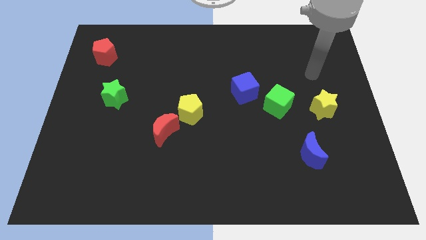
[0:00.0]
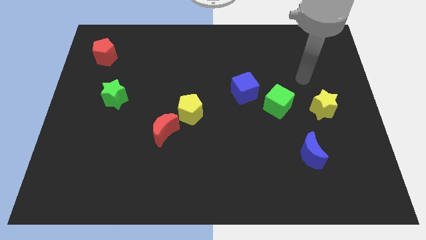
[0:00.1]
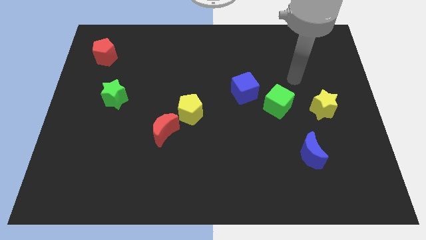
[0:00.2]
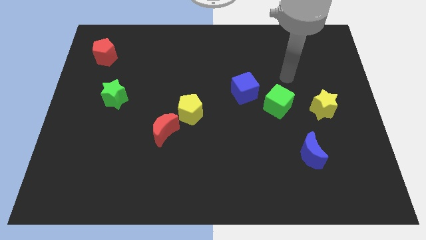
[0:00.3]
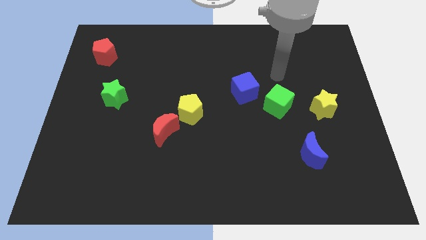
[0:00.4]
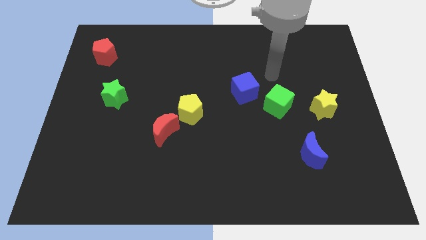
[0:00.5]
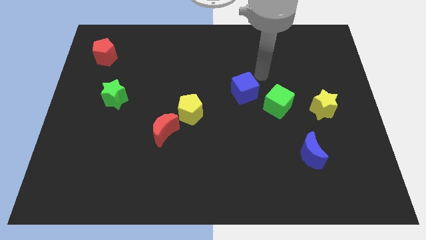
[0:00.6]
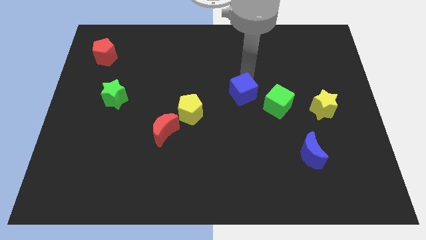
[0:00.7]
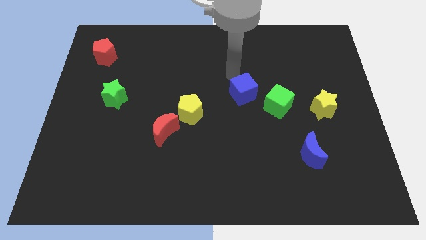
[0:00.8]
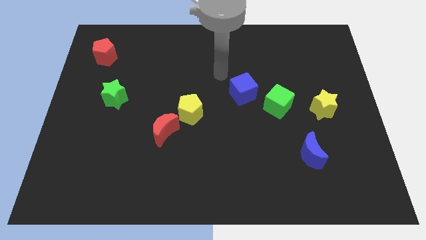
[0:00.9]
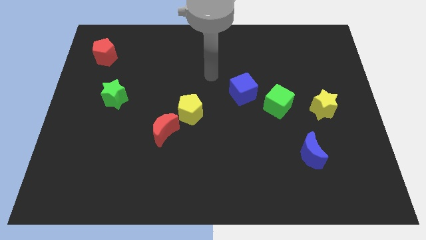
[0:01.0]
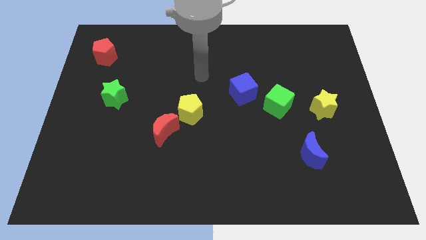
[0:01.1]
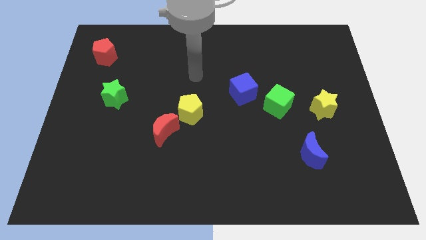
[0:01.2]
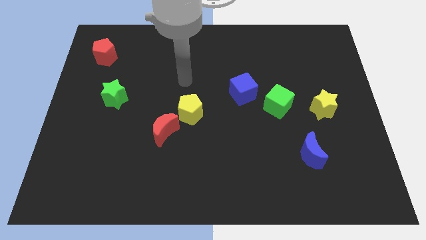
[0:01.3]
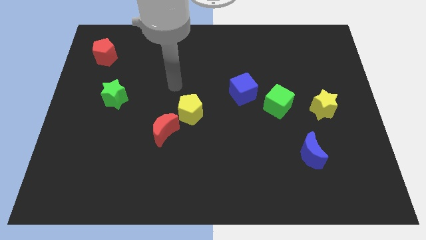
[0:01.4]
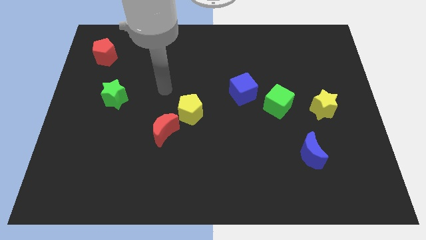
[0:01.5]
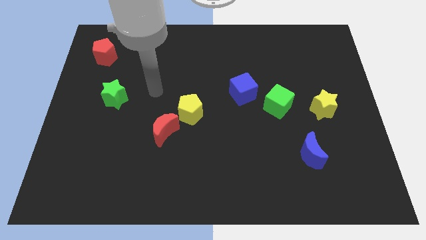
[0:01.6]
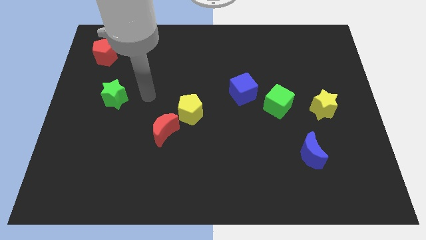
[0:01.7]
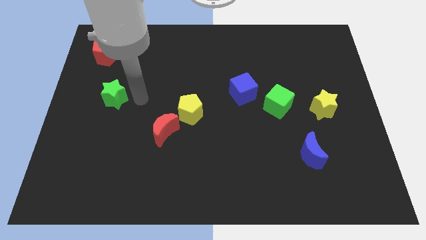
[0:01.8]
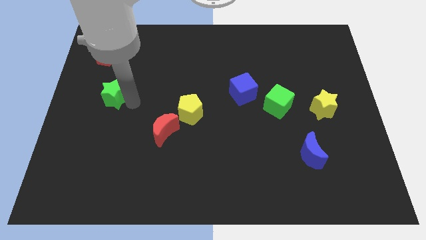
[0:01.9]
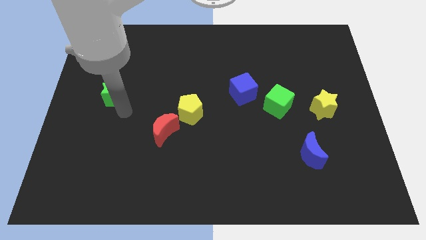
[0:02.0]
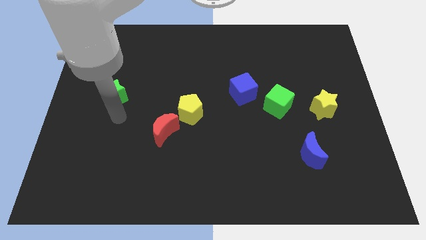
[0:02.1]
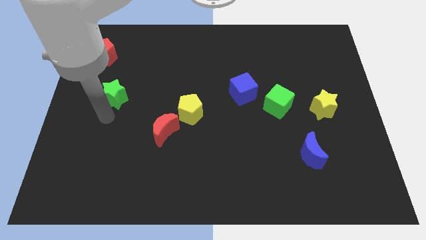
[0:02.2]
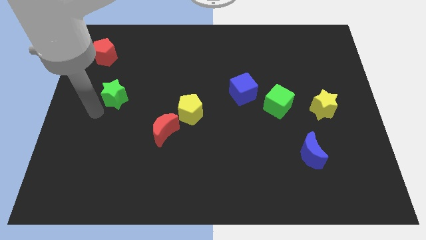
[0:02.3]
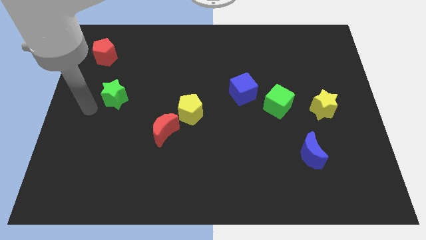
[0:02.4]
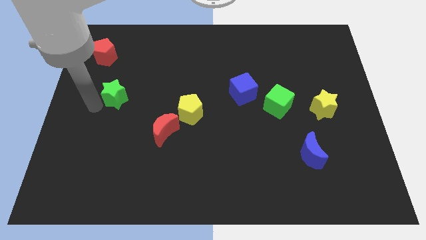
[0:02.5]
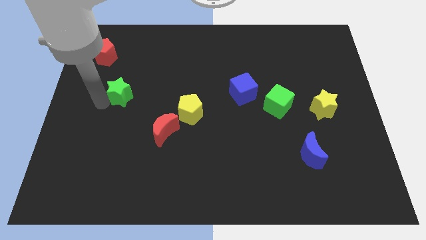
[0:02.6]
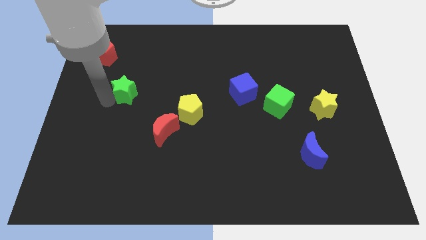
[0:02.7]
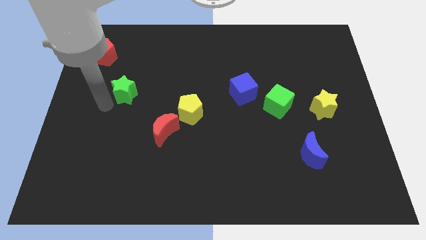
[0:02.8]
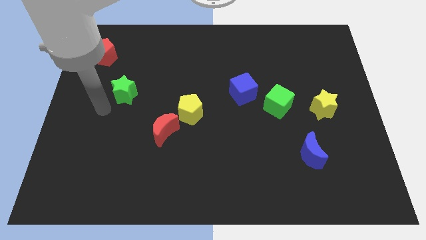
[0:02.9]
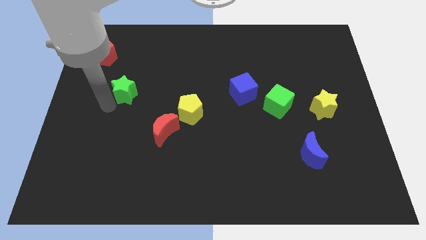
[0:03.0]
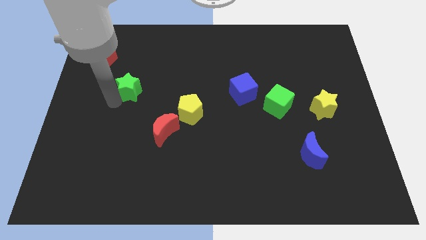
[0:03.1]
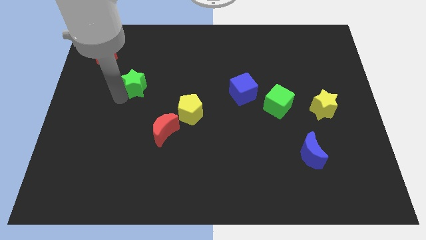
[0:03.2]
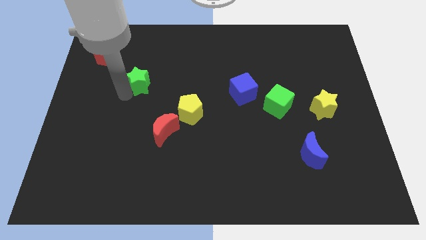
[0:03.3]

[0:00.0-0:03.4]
push the green star diagonally up and right a bit

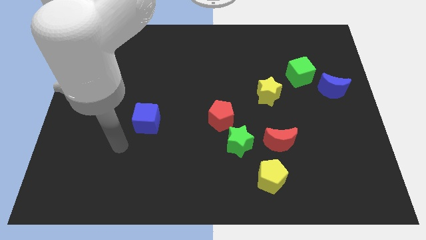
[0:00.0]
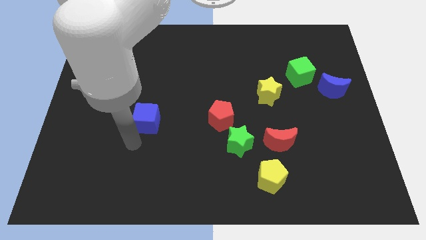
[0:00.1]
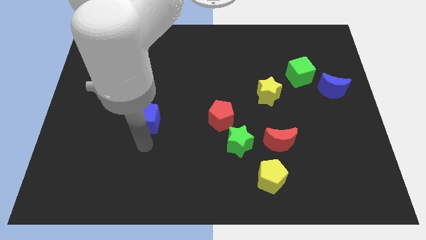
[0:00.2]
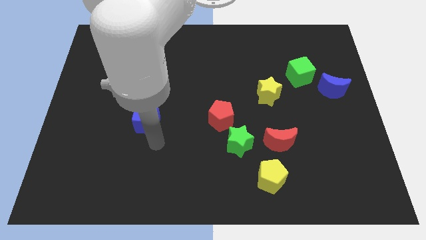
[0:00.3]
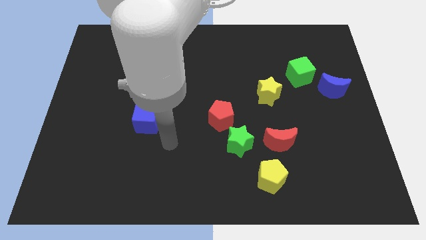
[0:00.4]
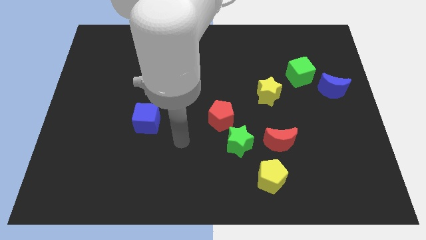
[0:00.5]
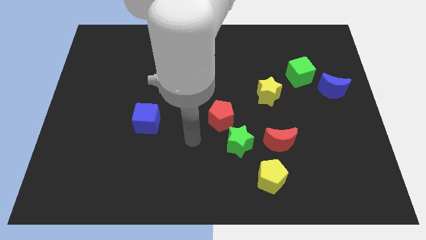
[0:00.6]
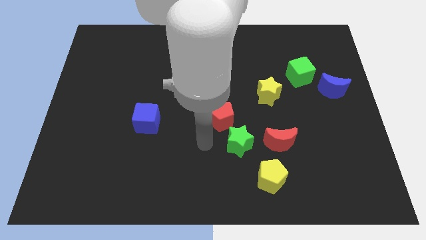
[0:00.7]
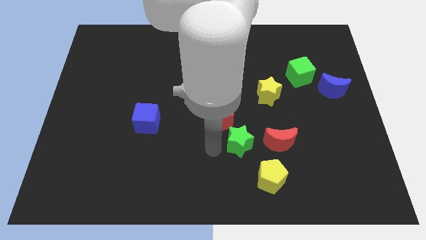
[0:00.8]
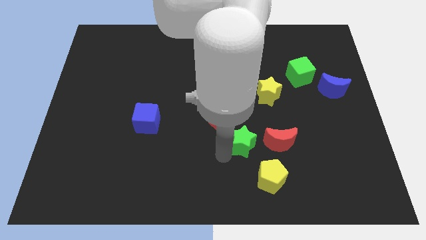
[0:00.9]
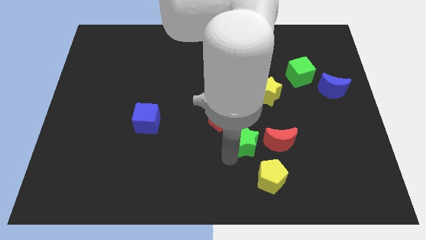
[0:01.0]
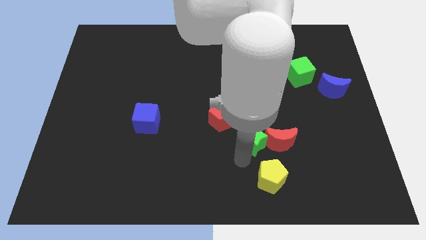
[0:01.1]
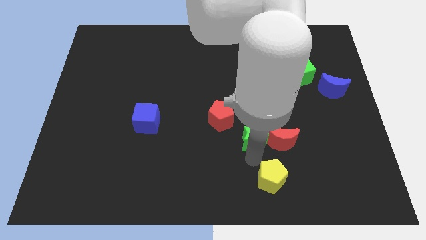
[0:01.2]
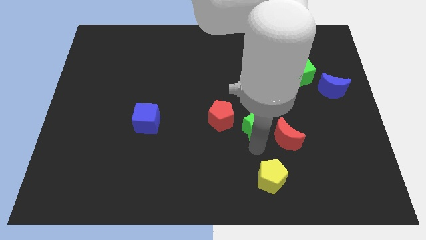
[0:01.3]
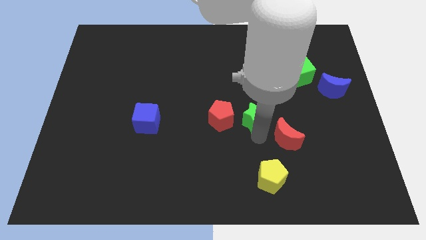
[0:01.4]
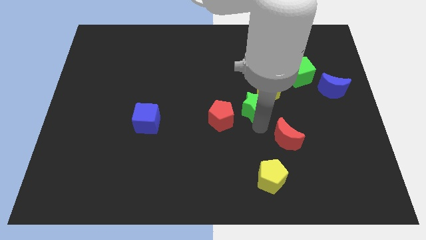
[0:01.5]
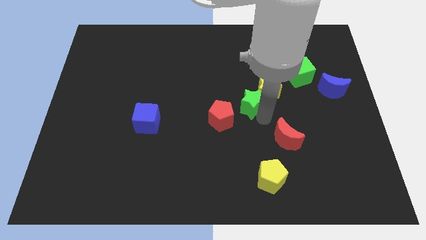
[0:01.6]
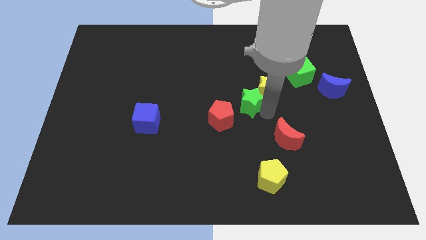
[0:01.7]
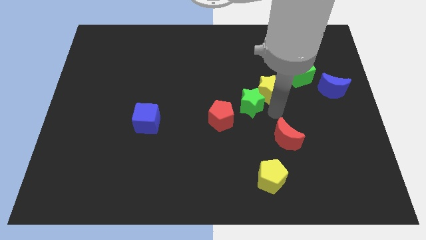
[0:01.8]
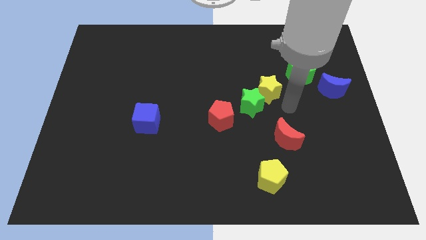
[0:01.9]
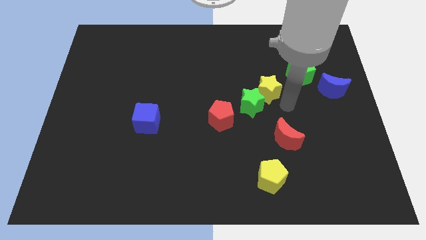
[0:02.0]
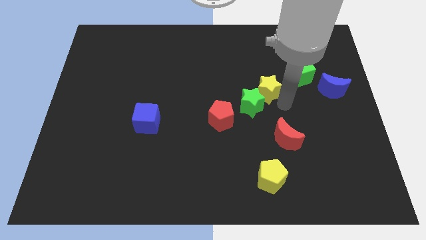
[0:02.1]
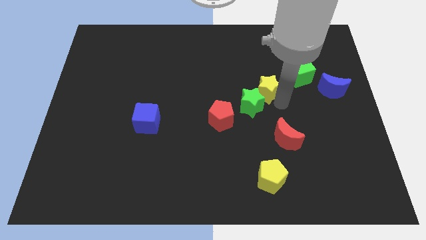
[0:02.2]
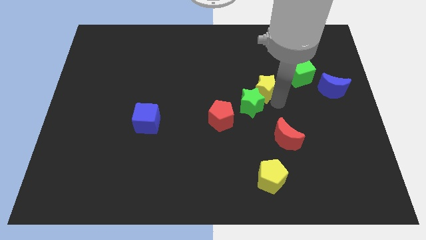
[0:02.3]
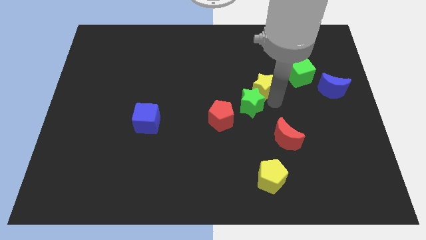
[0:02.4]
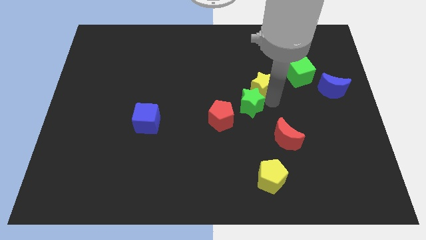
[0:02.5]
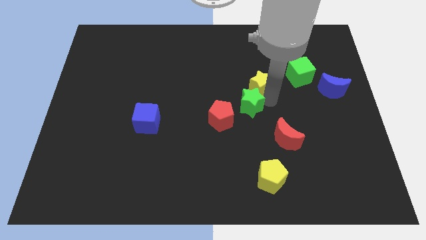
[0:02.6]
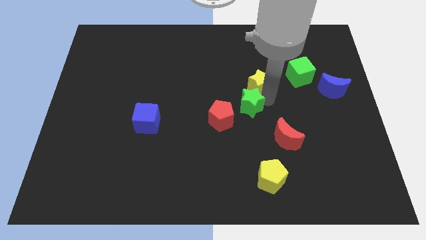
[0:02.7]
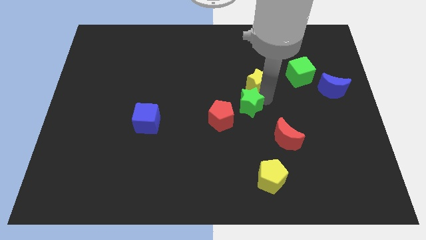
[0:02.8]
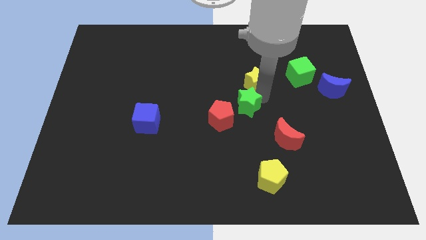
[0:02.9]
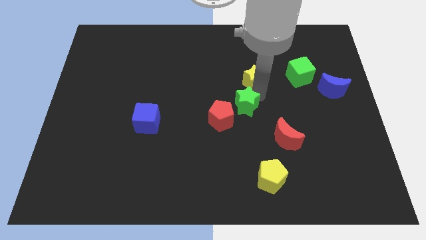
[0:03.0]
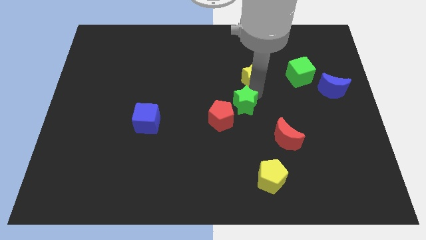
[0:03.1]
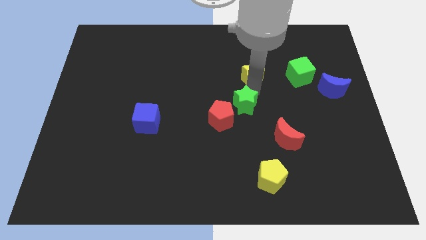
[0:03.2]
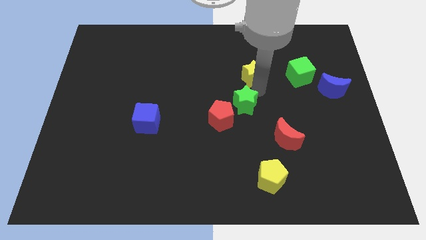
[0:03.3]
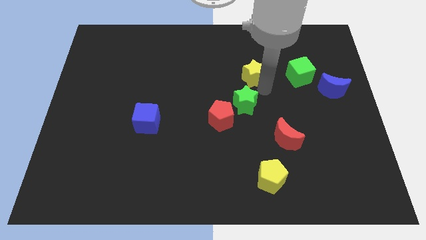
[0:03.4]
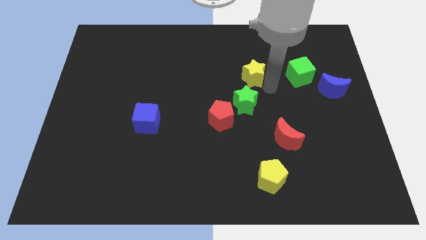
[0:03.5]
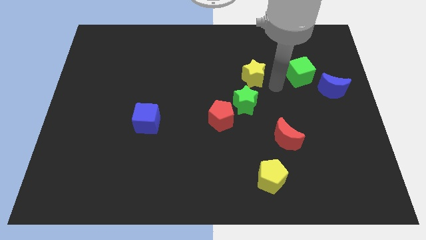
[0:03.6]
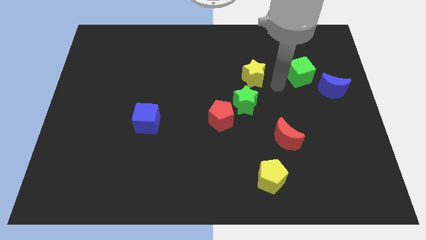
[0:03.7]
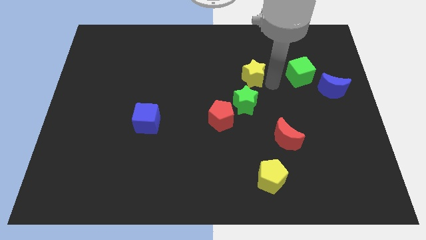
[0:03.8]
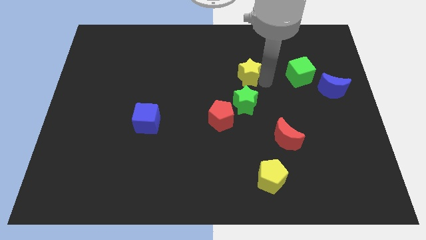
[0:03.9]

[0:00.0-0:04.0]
push the yellow star diagonally up and to the left a bit

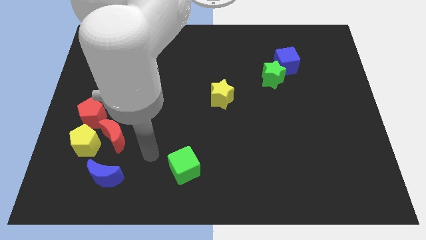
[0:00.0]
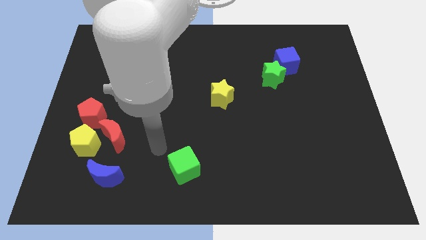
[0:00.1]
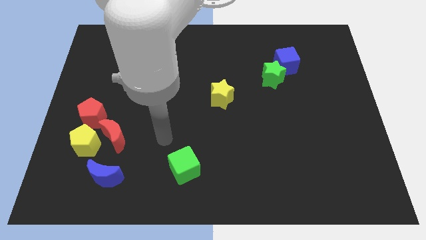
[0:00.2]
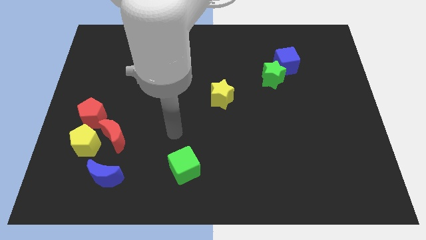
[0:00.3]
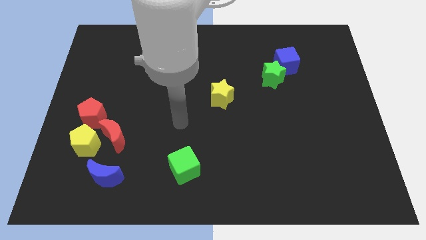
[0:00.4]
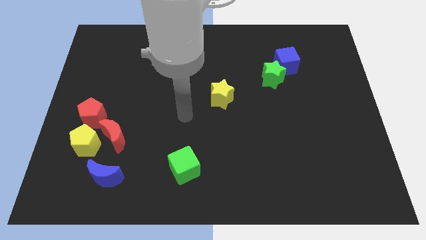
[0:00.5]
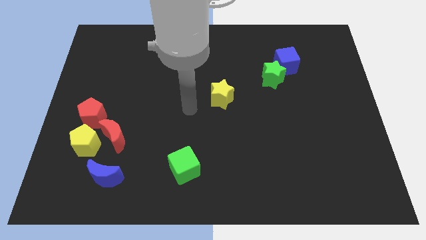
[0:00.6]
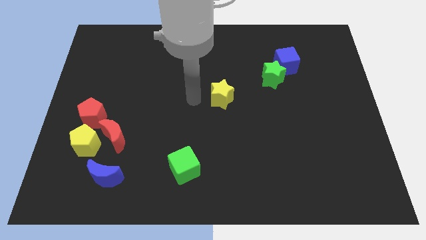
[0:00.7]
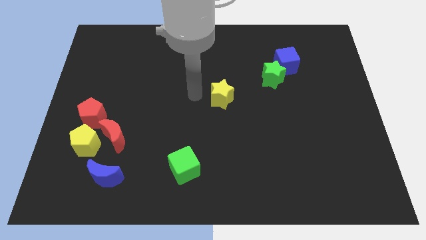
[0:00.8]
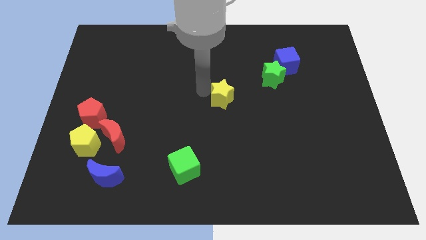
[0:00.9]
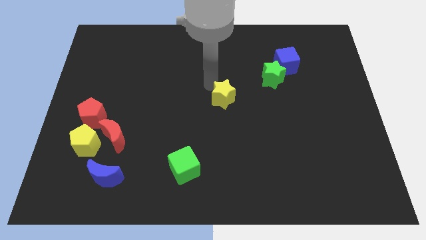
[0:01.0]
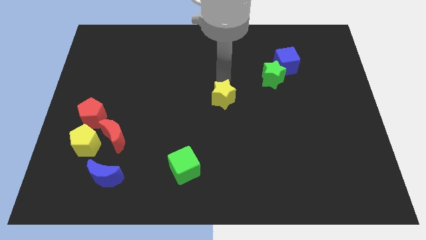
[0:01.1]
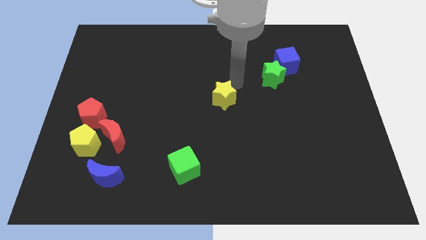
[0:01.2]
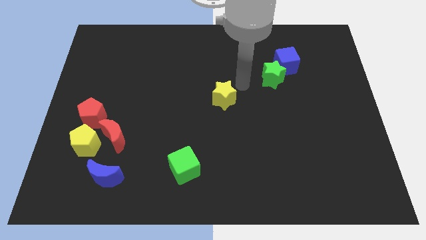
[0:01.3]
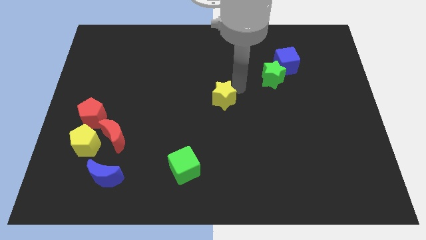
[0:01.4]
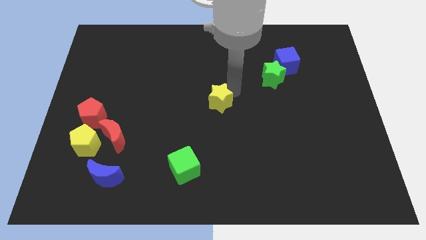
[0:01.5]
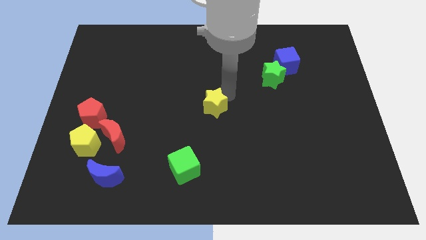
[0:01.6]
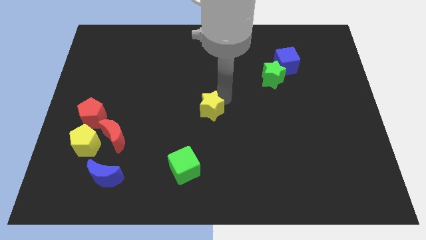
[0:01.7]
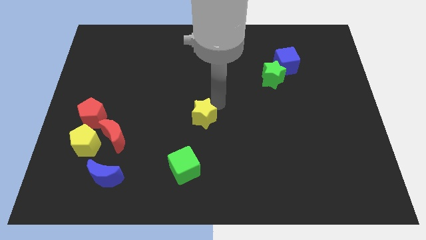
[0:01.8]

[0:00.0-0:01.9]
move the yellow star a bit down and then to the left
